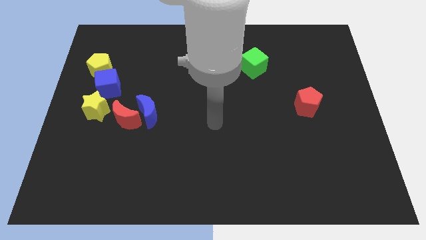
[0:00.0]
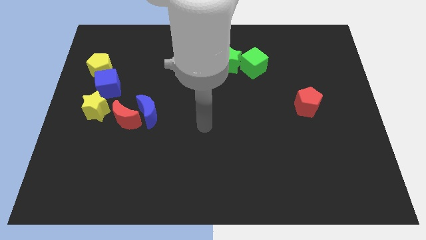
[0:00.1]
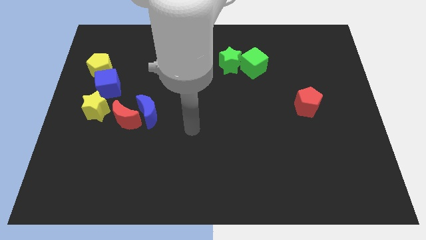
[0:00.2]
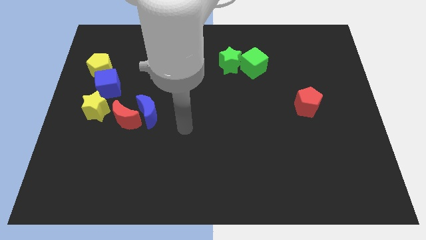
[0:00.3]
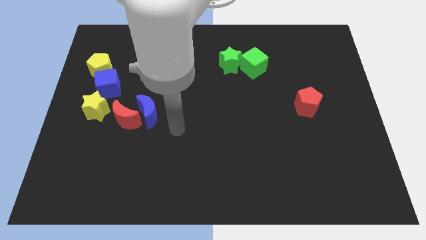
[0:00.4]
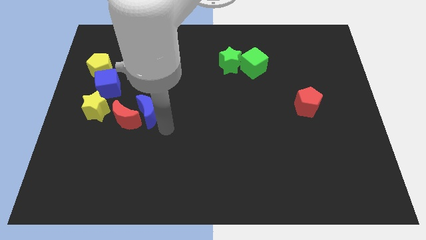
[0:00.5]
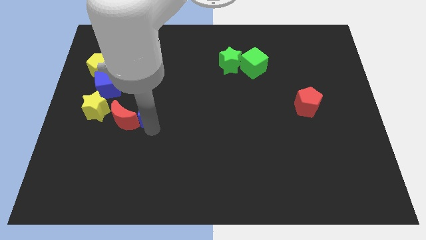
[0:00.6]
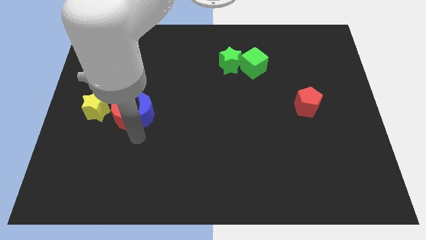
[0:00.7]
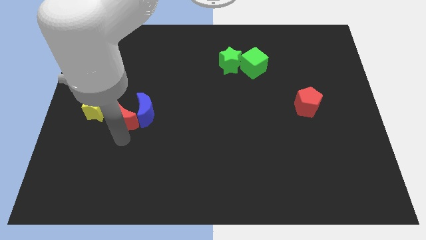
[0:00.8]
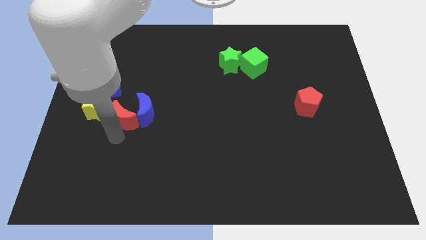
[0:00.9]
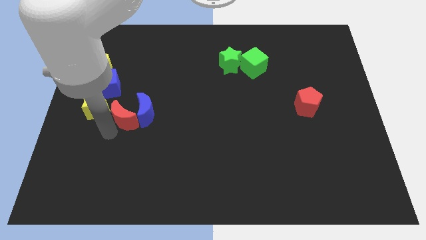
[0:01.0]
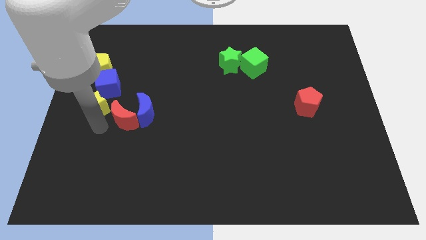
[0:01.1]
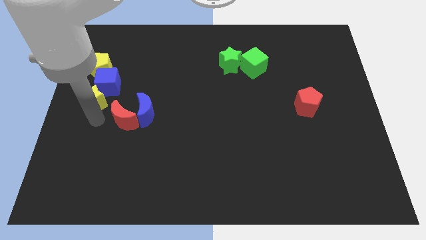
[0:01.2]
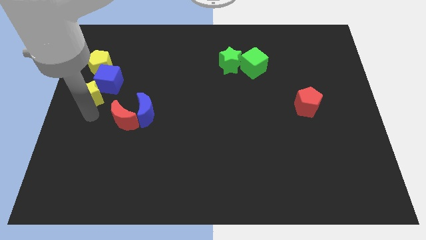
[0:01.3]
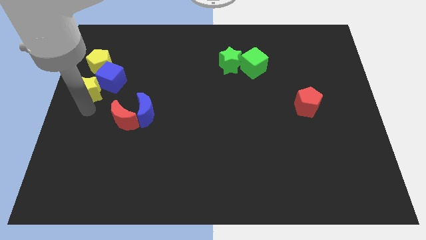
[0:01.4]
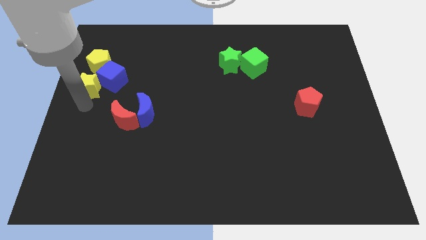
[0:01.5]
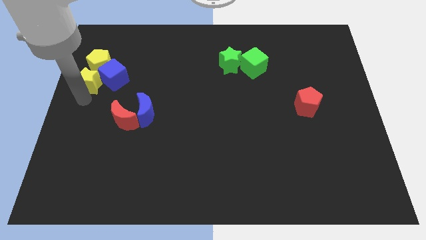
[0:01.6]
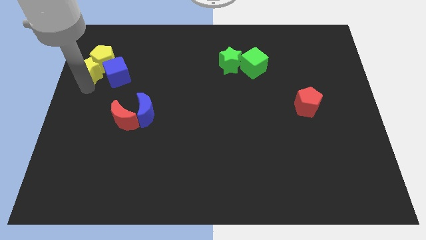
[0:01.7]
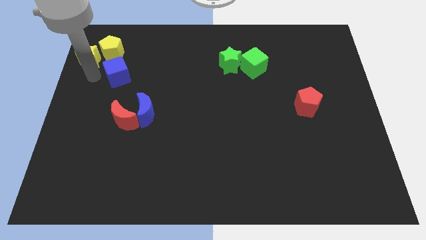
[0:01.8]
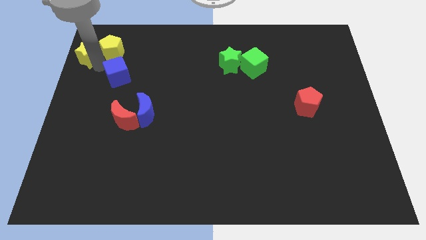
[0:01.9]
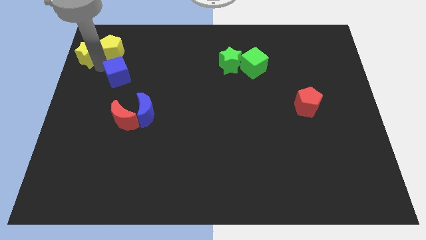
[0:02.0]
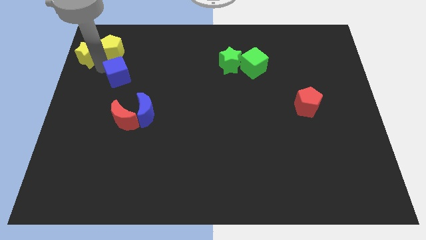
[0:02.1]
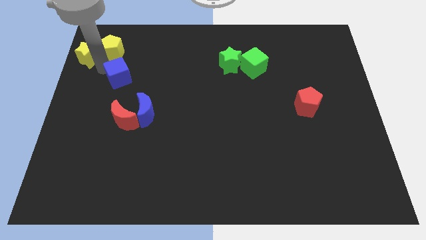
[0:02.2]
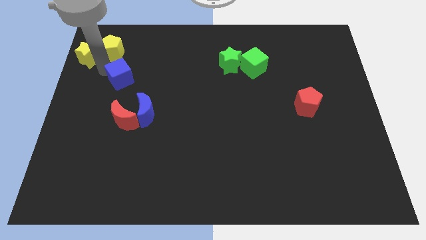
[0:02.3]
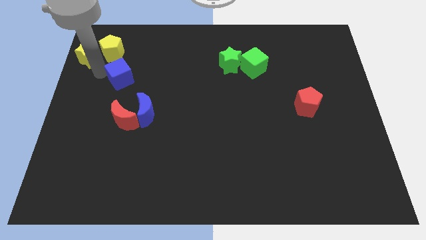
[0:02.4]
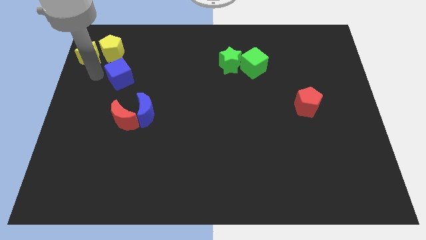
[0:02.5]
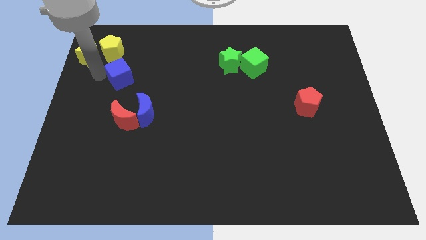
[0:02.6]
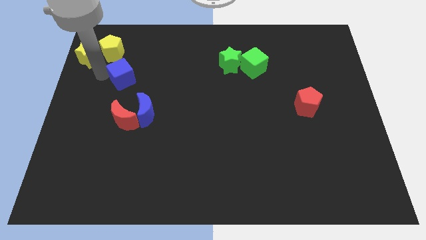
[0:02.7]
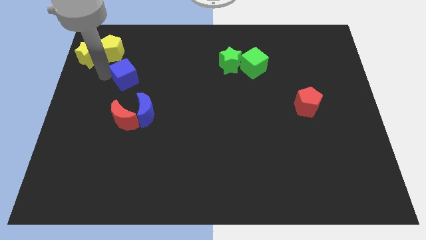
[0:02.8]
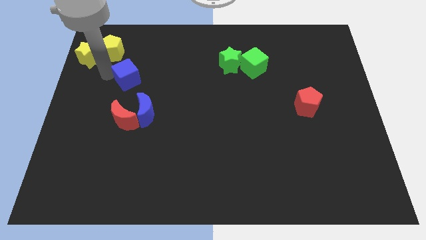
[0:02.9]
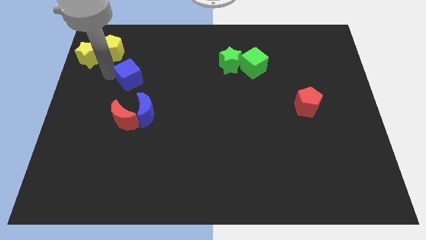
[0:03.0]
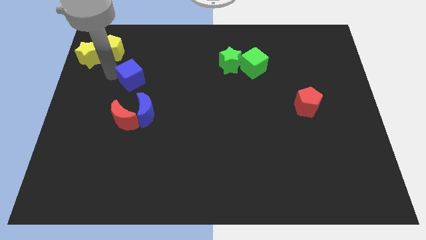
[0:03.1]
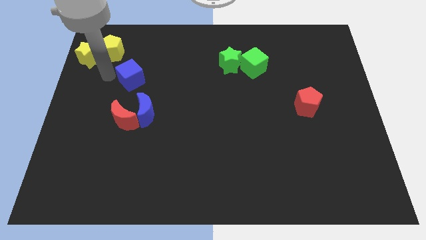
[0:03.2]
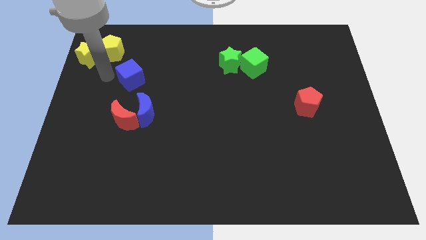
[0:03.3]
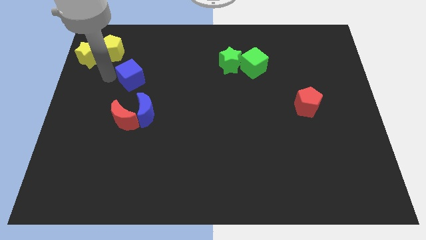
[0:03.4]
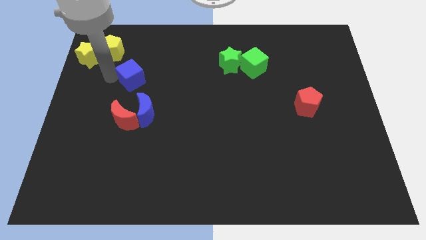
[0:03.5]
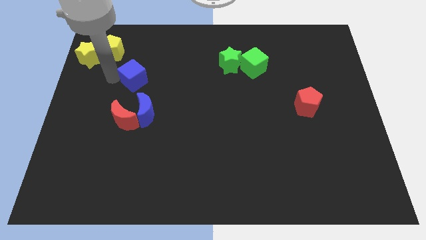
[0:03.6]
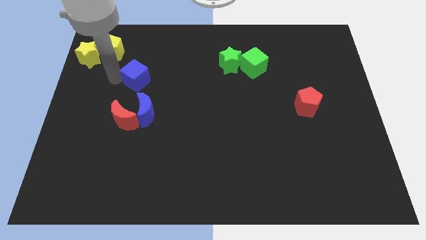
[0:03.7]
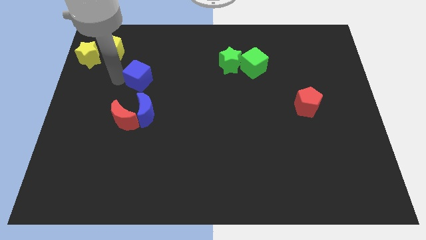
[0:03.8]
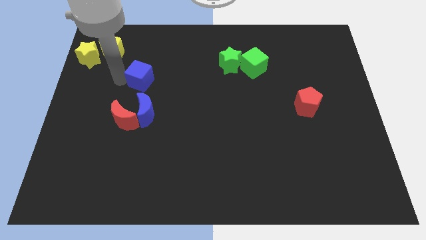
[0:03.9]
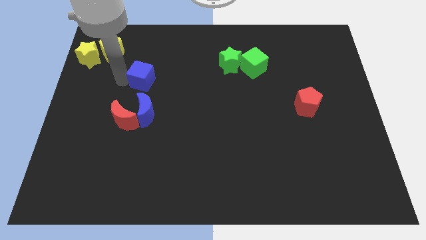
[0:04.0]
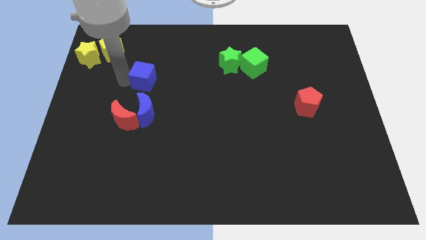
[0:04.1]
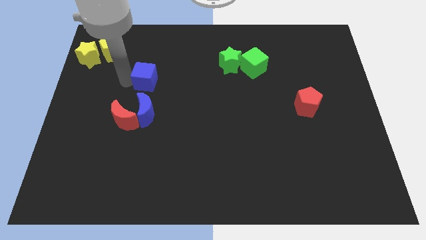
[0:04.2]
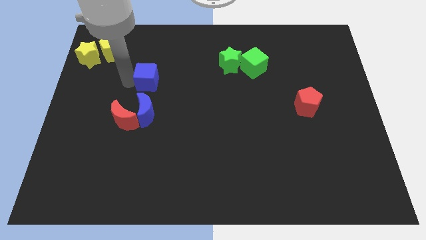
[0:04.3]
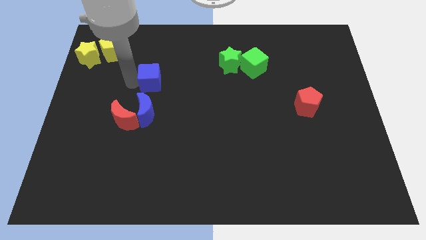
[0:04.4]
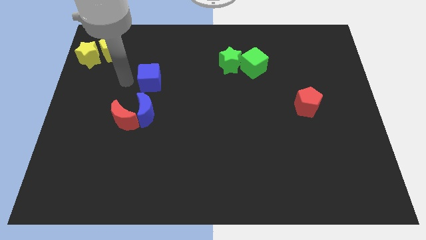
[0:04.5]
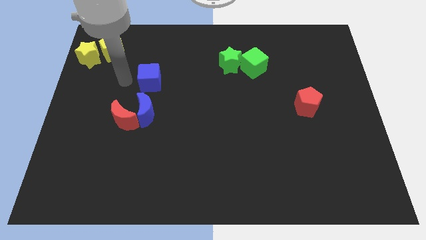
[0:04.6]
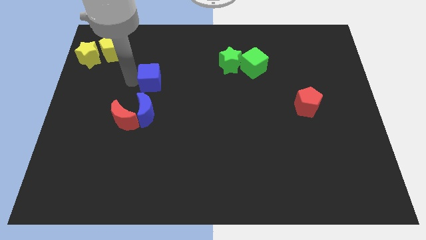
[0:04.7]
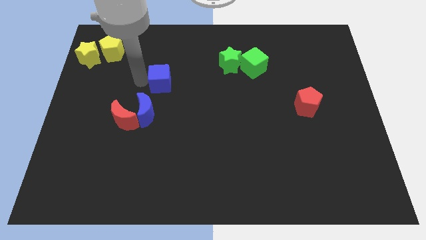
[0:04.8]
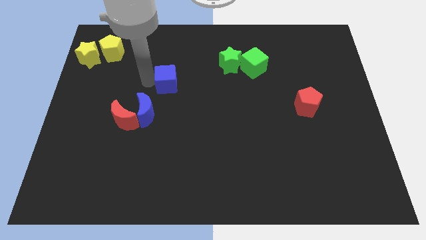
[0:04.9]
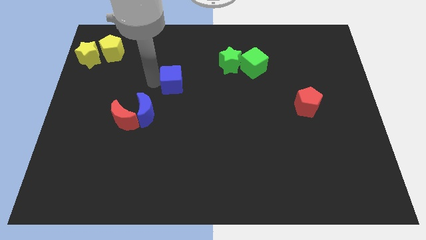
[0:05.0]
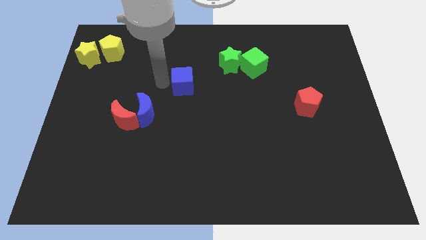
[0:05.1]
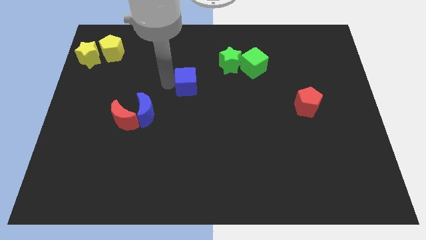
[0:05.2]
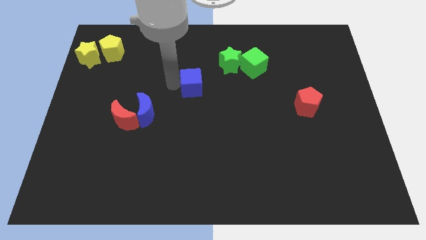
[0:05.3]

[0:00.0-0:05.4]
slide the blue cube to the right

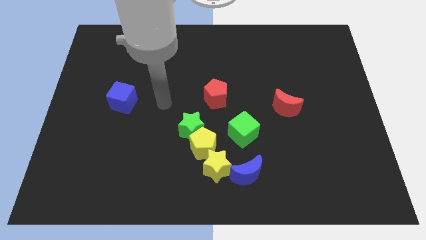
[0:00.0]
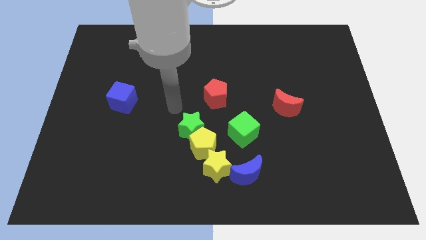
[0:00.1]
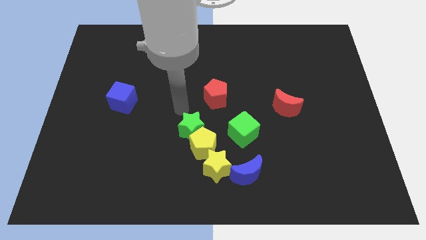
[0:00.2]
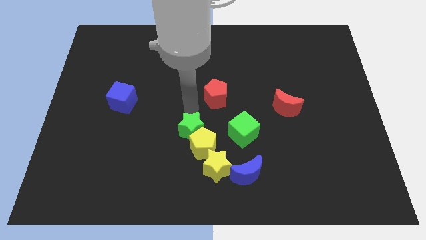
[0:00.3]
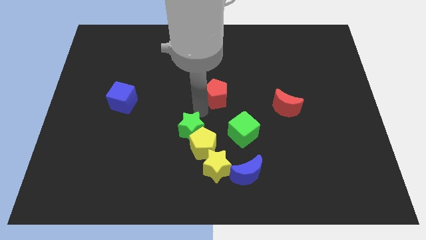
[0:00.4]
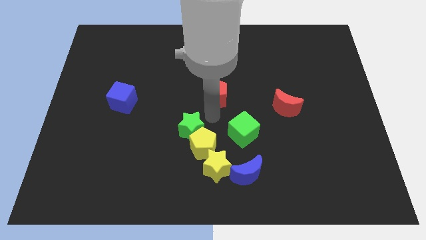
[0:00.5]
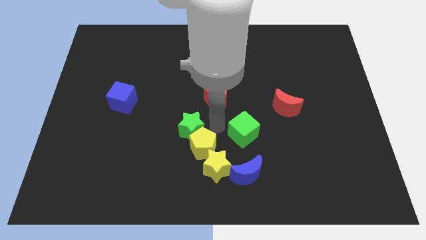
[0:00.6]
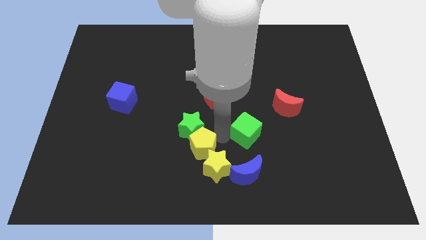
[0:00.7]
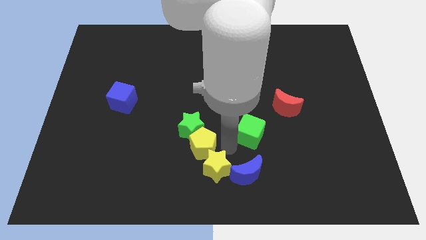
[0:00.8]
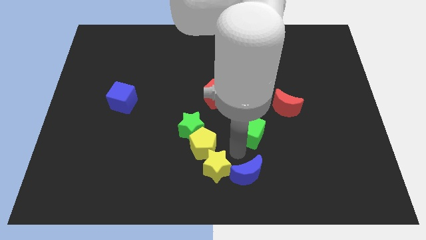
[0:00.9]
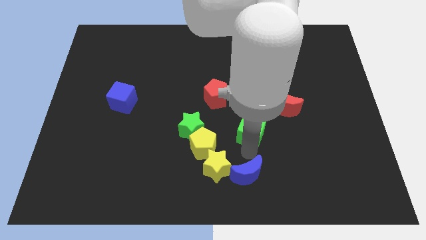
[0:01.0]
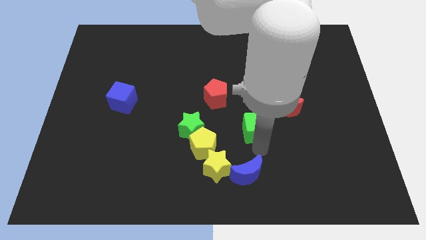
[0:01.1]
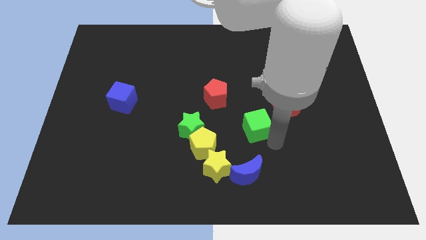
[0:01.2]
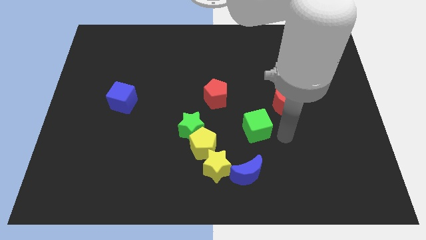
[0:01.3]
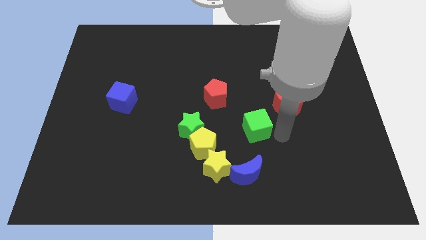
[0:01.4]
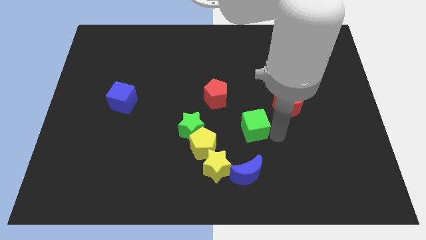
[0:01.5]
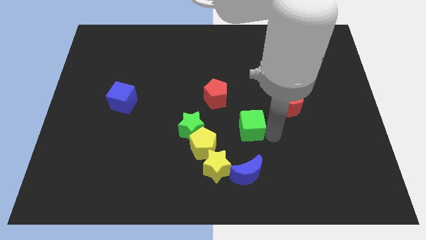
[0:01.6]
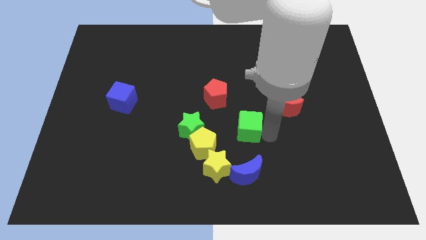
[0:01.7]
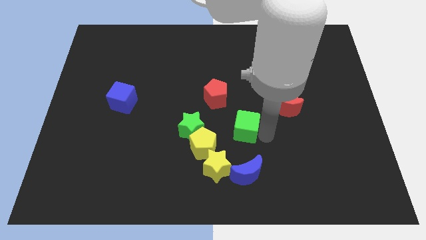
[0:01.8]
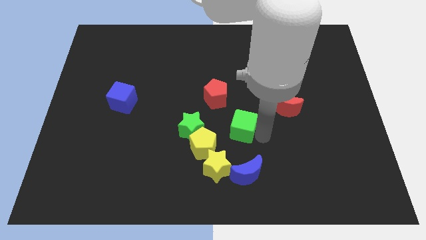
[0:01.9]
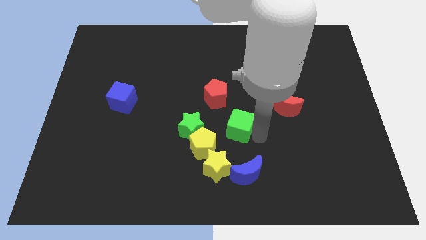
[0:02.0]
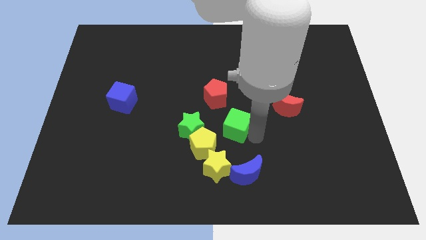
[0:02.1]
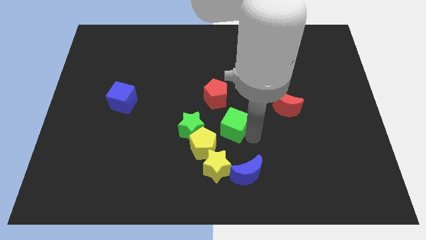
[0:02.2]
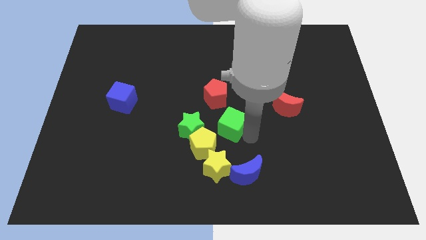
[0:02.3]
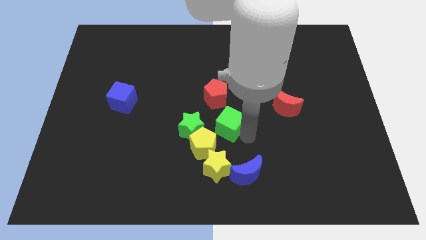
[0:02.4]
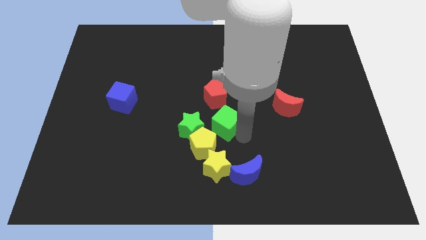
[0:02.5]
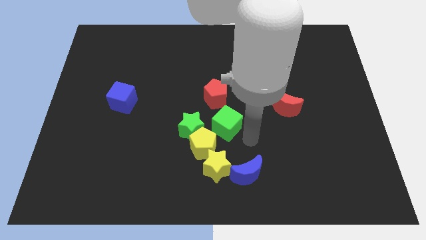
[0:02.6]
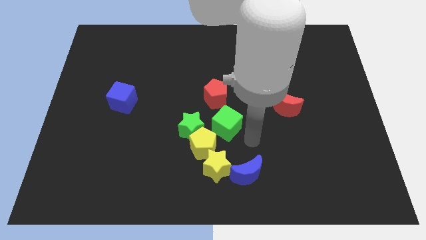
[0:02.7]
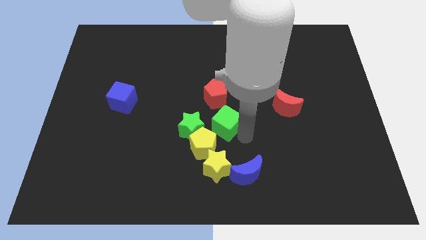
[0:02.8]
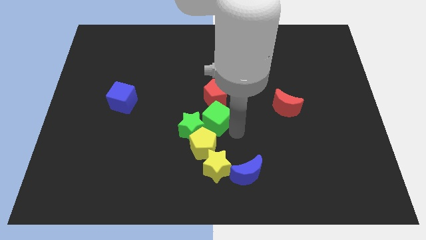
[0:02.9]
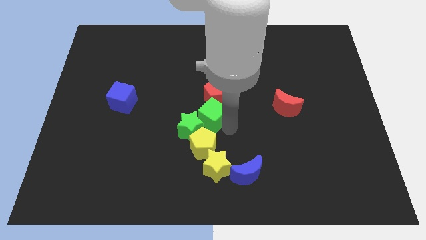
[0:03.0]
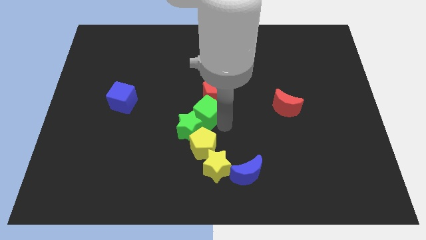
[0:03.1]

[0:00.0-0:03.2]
push the green cube to the left a little
